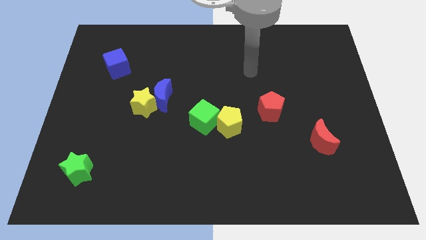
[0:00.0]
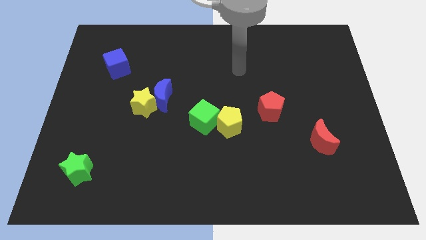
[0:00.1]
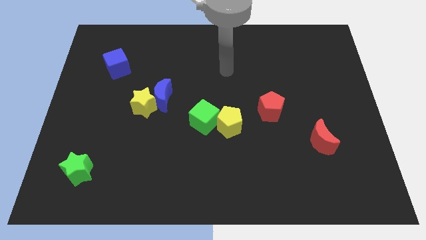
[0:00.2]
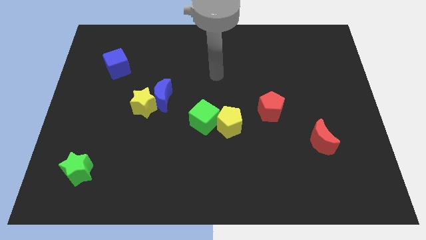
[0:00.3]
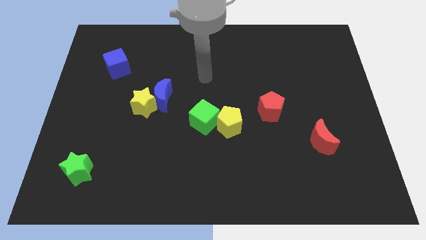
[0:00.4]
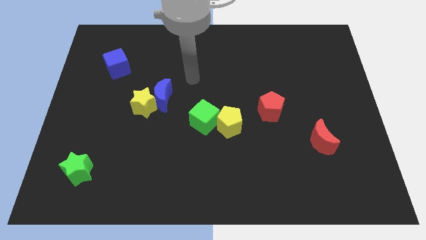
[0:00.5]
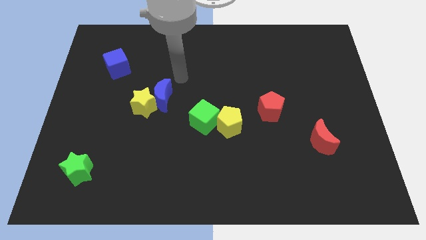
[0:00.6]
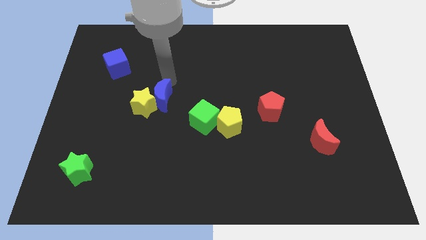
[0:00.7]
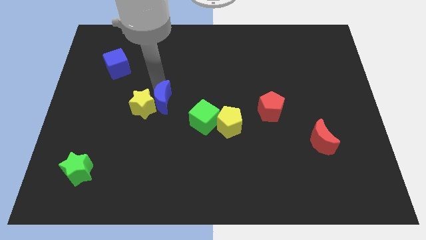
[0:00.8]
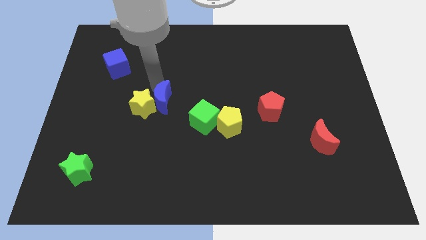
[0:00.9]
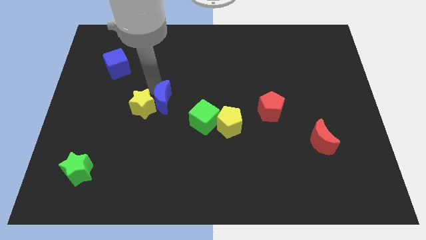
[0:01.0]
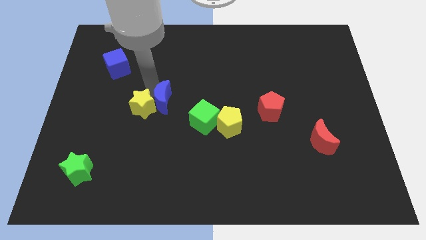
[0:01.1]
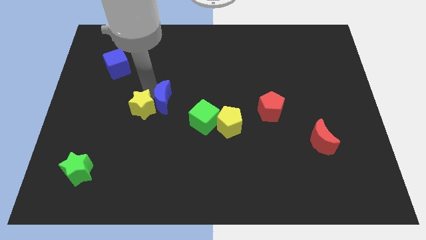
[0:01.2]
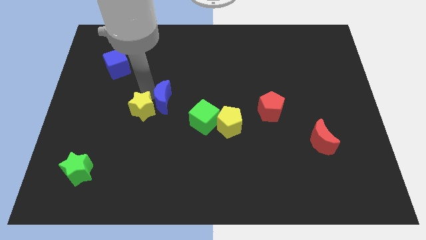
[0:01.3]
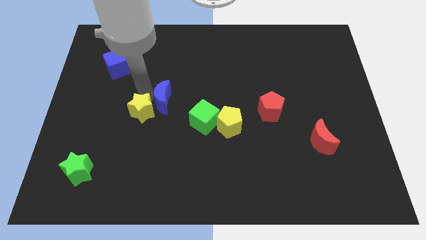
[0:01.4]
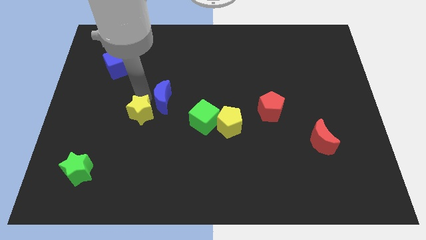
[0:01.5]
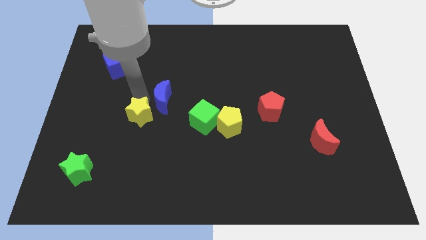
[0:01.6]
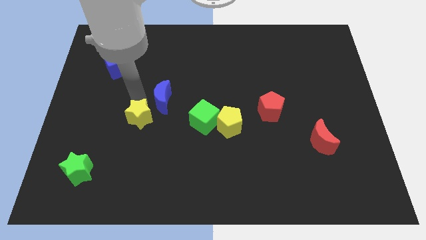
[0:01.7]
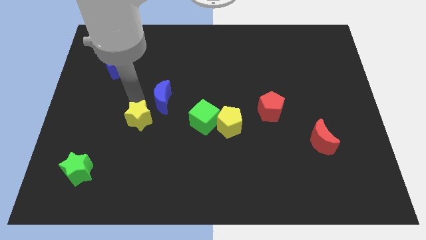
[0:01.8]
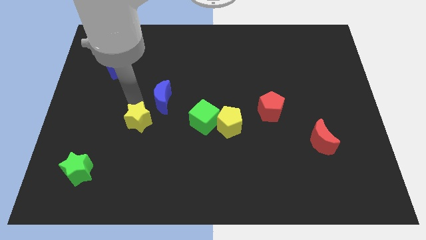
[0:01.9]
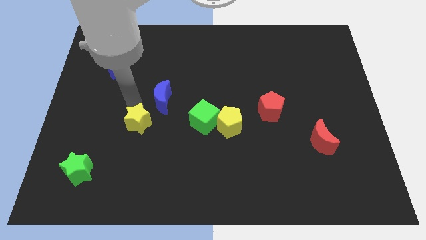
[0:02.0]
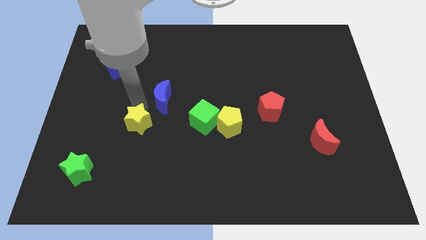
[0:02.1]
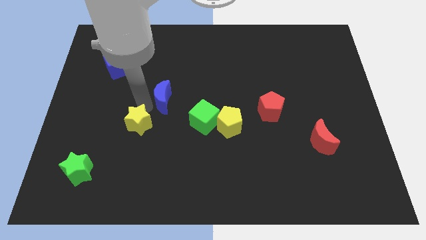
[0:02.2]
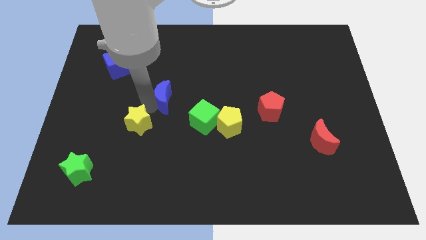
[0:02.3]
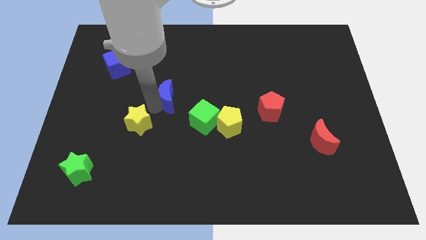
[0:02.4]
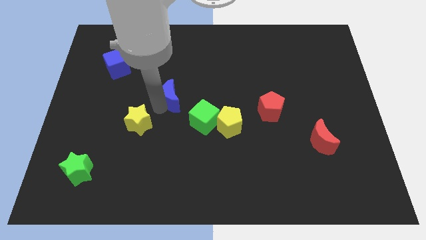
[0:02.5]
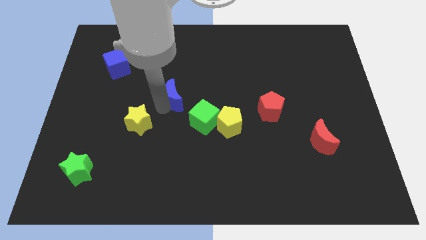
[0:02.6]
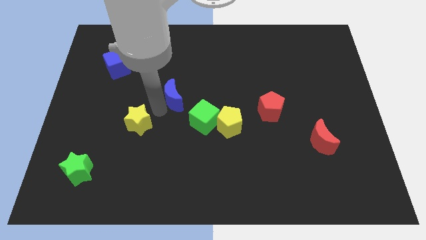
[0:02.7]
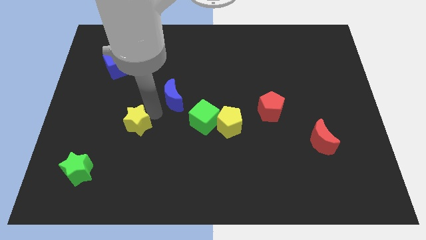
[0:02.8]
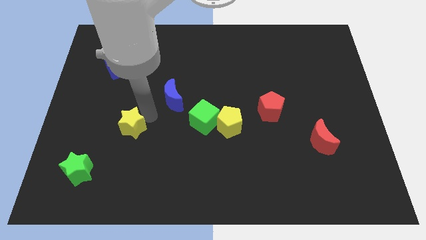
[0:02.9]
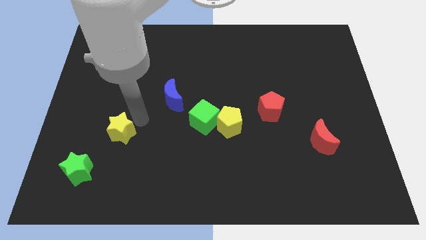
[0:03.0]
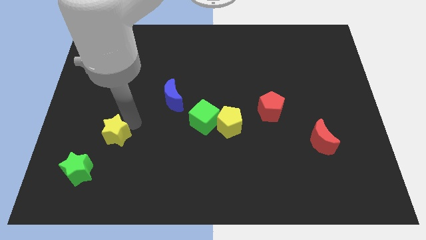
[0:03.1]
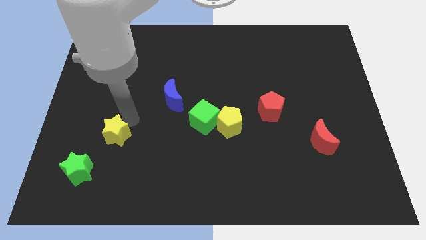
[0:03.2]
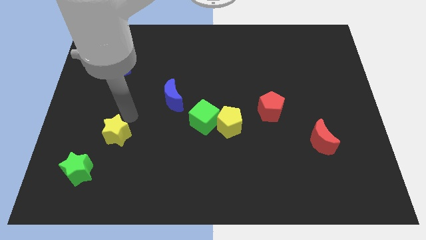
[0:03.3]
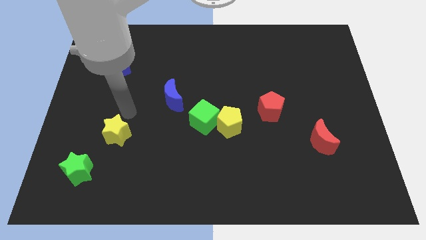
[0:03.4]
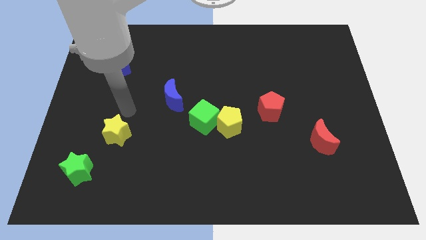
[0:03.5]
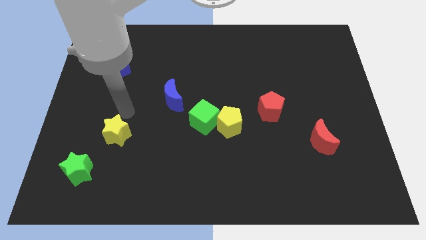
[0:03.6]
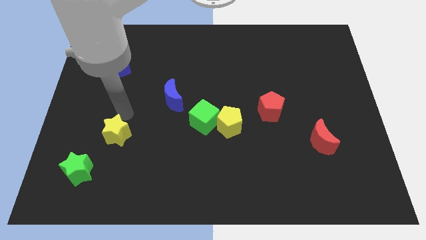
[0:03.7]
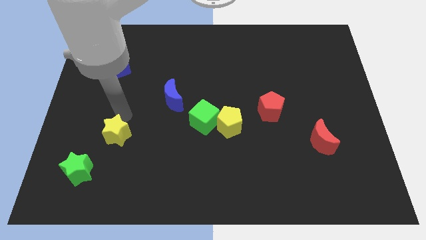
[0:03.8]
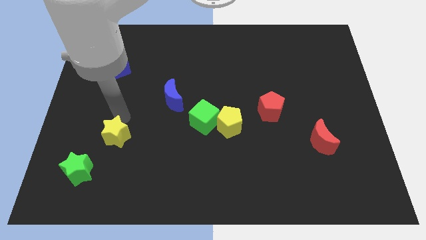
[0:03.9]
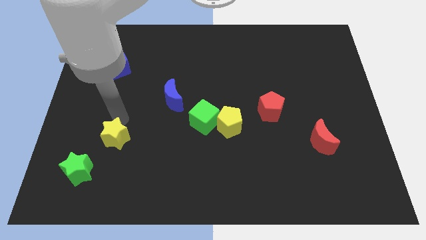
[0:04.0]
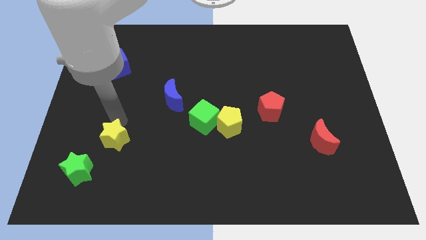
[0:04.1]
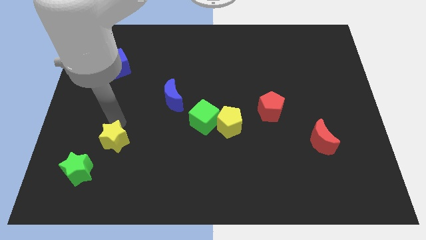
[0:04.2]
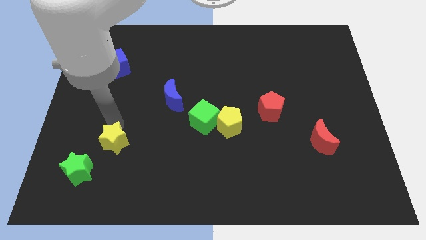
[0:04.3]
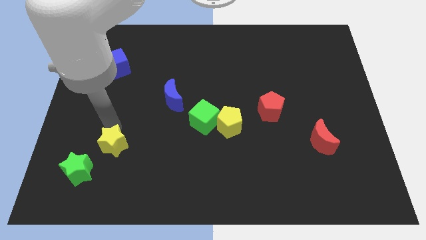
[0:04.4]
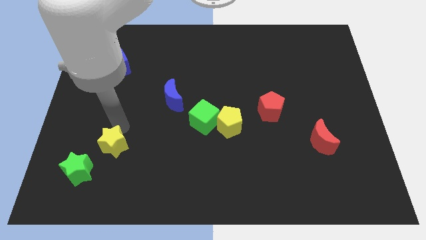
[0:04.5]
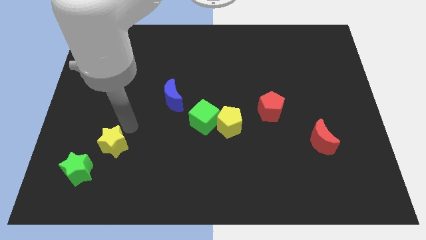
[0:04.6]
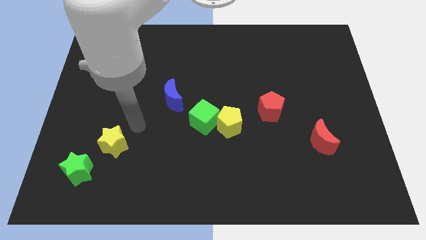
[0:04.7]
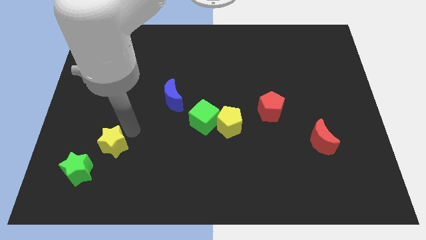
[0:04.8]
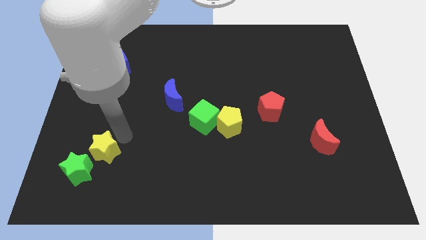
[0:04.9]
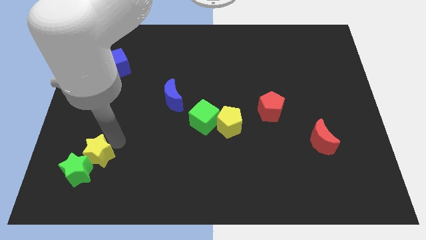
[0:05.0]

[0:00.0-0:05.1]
move the yellow star to the green star

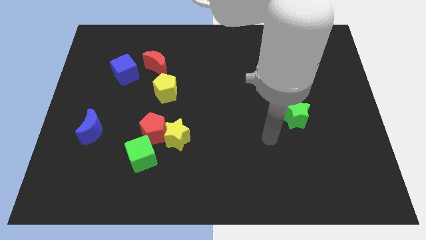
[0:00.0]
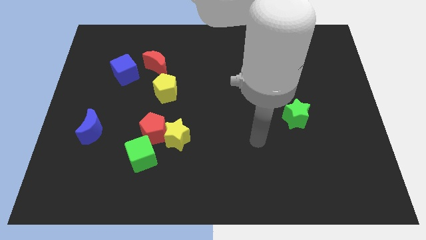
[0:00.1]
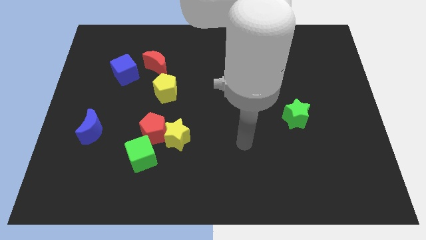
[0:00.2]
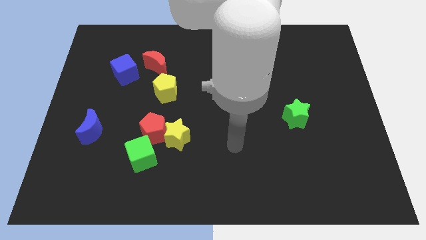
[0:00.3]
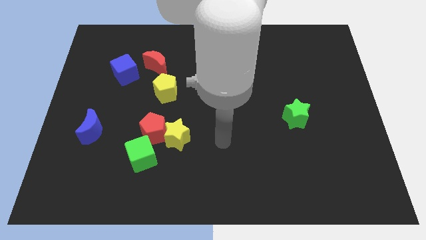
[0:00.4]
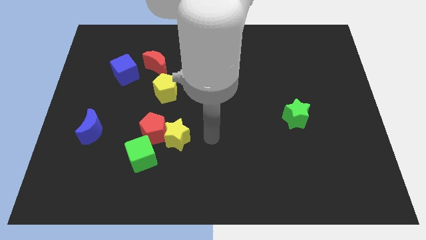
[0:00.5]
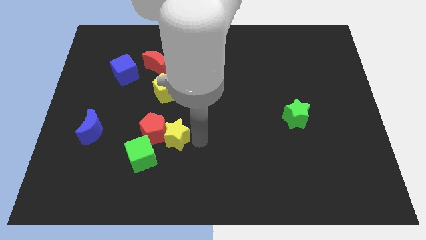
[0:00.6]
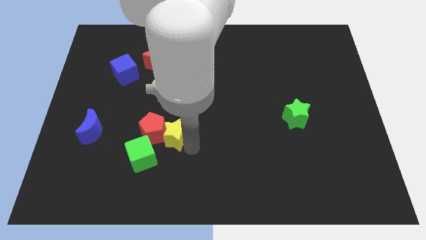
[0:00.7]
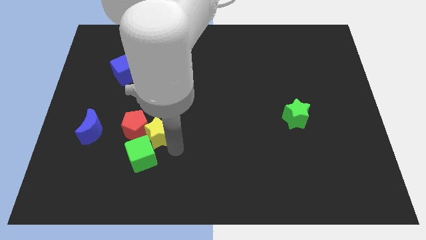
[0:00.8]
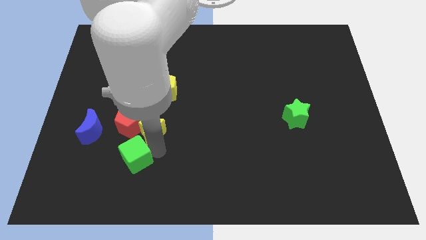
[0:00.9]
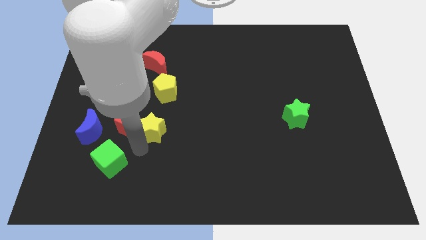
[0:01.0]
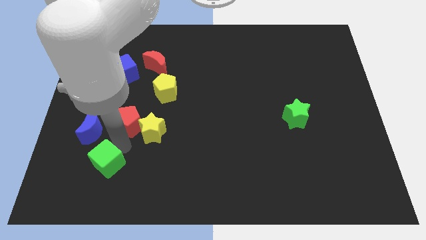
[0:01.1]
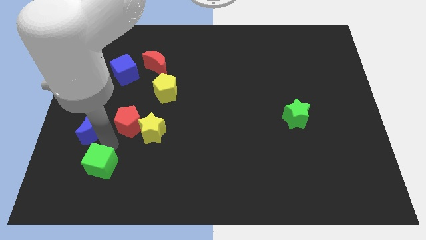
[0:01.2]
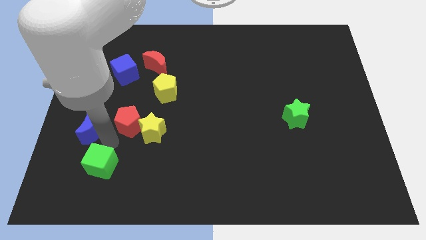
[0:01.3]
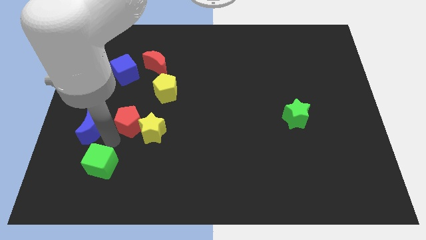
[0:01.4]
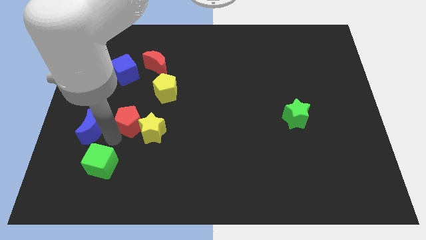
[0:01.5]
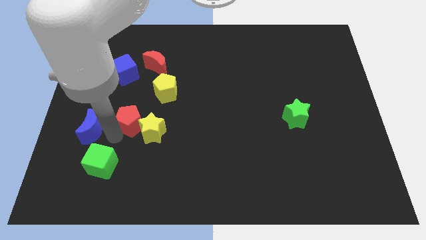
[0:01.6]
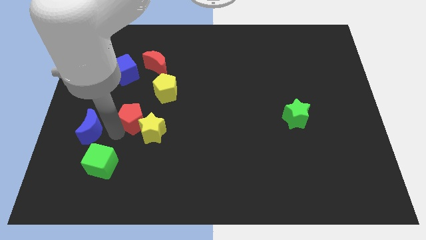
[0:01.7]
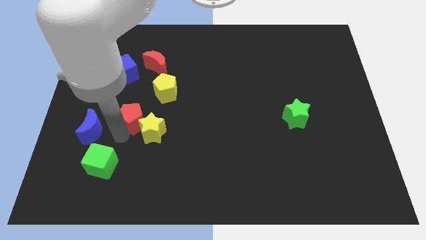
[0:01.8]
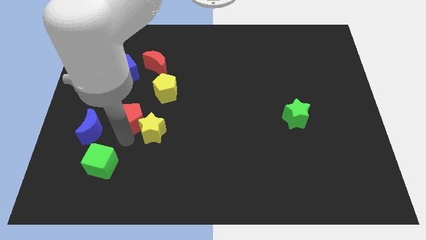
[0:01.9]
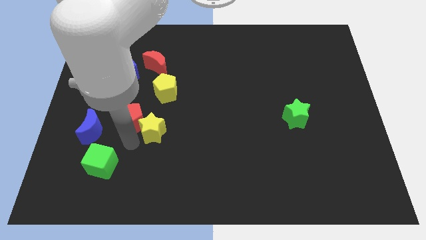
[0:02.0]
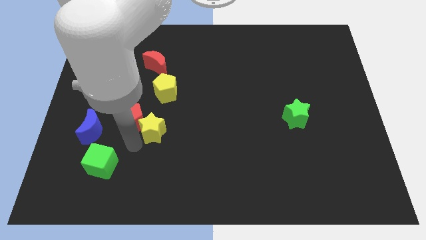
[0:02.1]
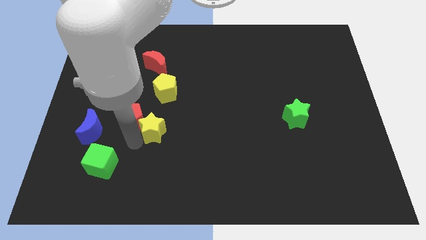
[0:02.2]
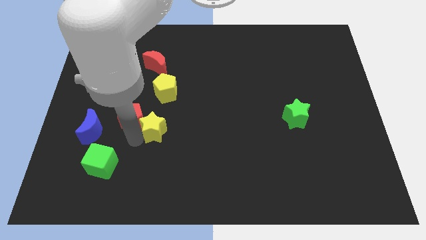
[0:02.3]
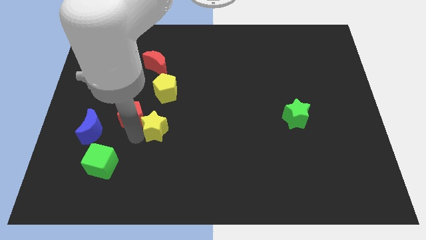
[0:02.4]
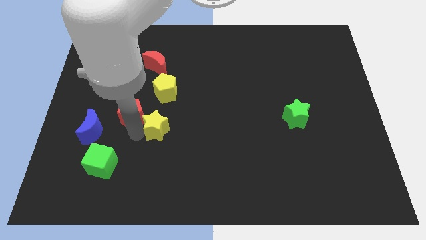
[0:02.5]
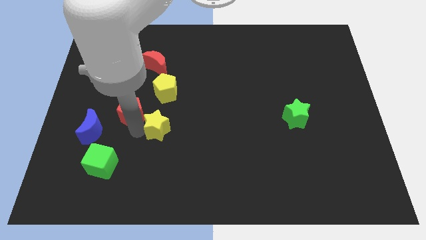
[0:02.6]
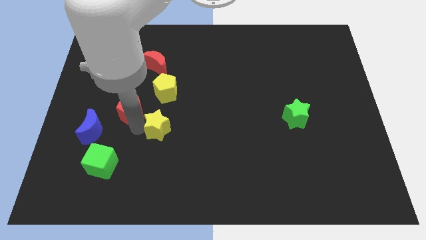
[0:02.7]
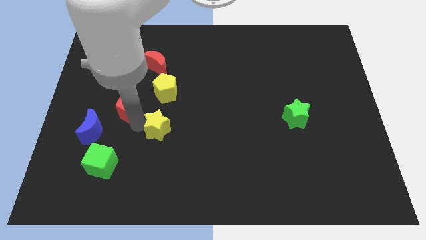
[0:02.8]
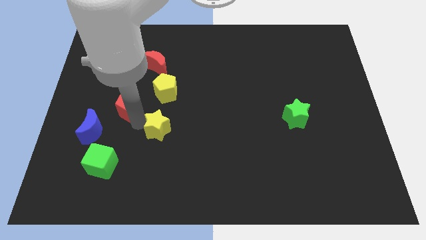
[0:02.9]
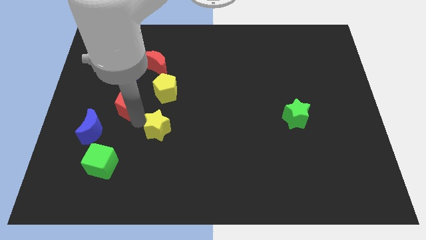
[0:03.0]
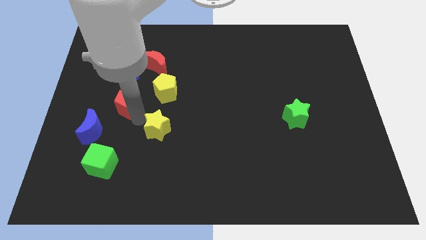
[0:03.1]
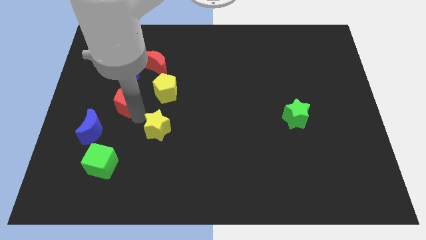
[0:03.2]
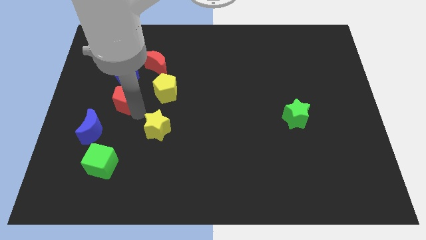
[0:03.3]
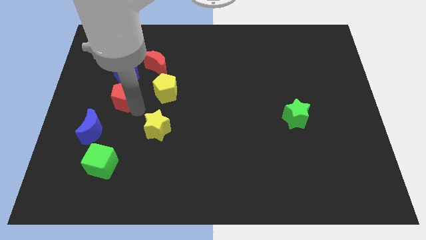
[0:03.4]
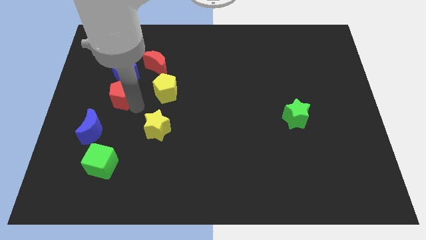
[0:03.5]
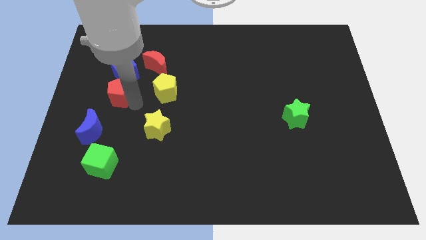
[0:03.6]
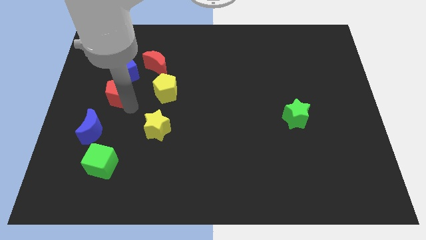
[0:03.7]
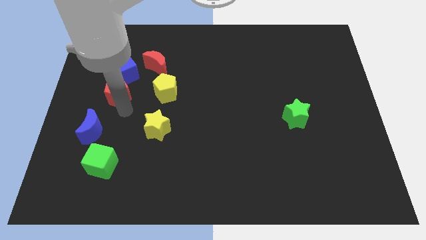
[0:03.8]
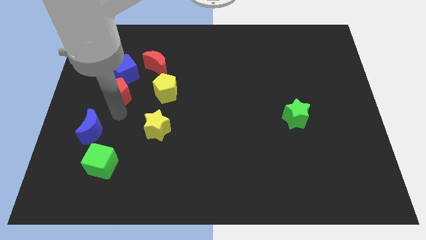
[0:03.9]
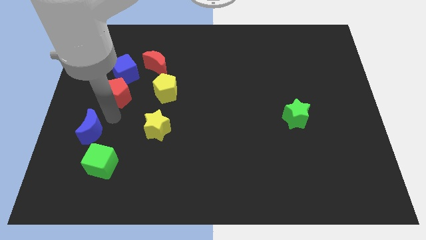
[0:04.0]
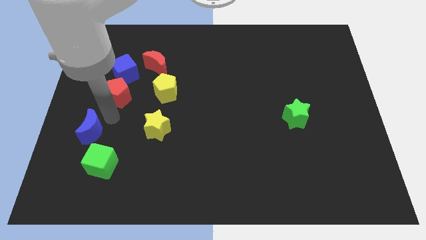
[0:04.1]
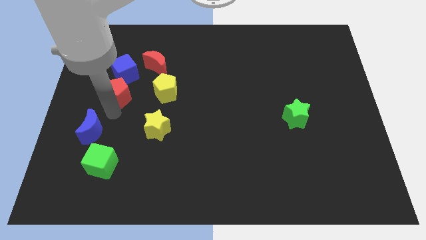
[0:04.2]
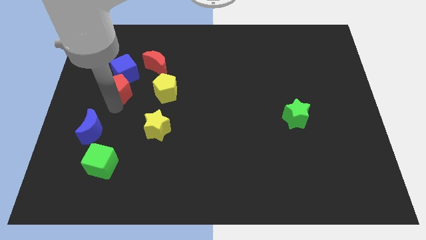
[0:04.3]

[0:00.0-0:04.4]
move the red pentagon close to the blue cube
